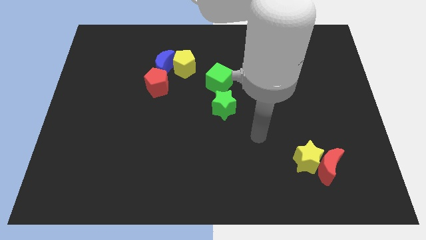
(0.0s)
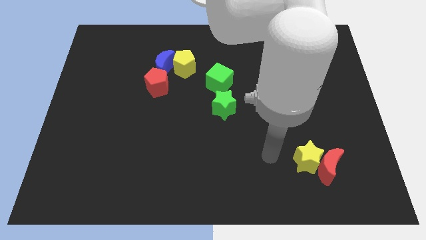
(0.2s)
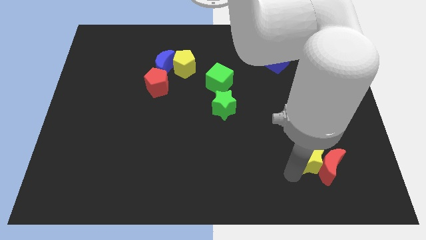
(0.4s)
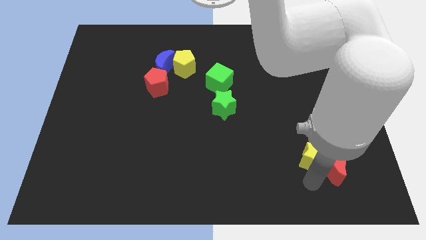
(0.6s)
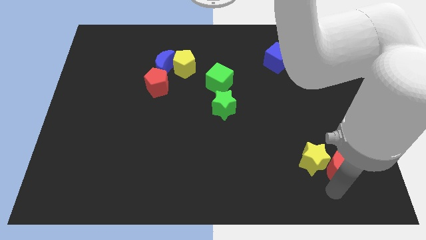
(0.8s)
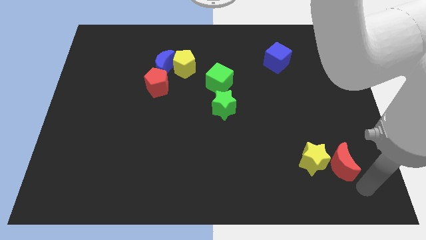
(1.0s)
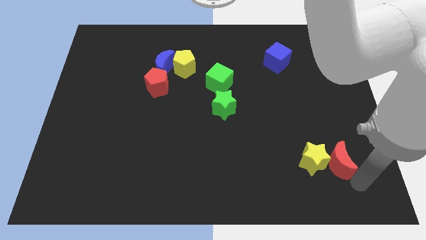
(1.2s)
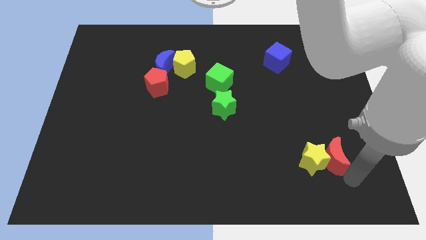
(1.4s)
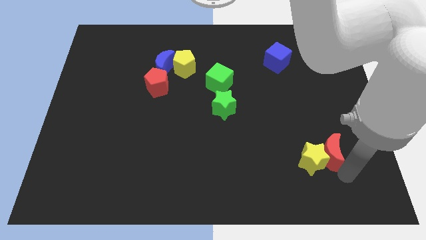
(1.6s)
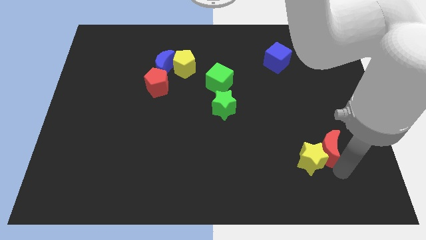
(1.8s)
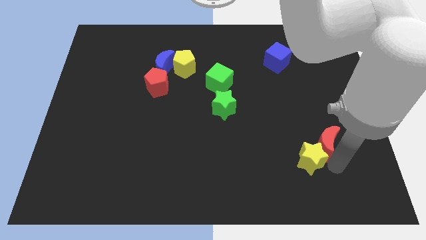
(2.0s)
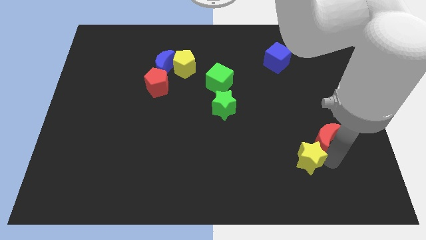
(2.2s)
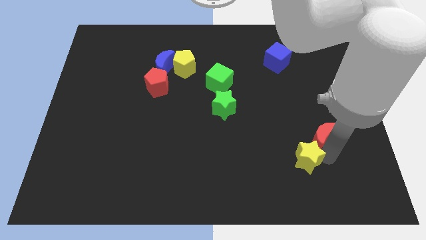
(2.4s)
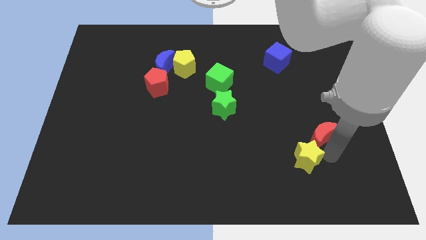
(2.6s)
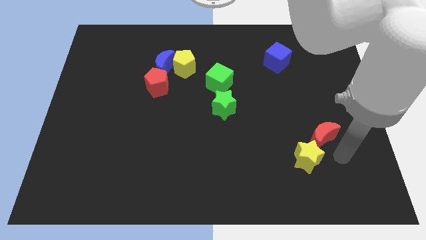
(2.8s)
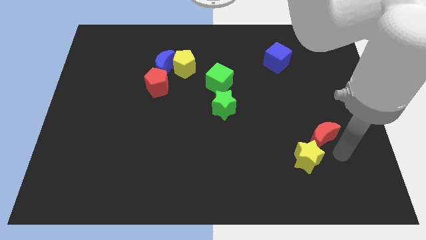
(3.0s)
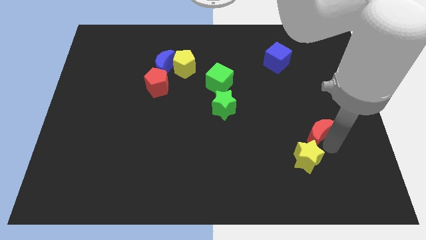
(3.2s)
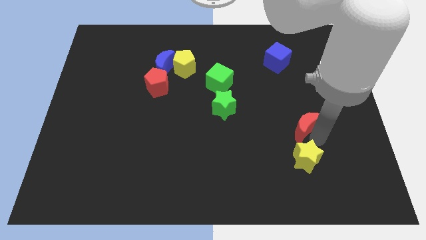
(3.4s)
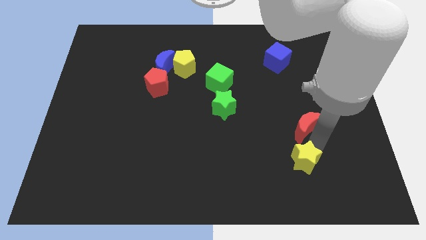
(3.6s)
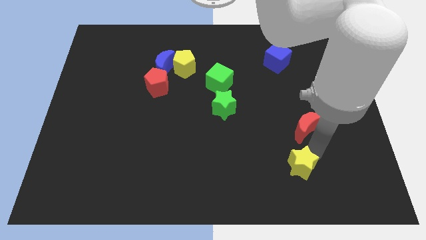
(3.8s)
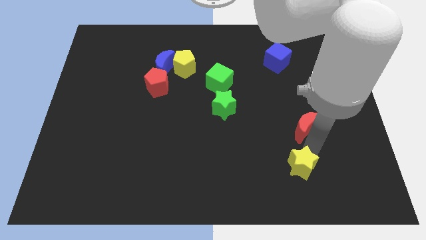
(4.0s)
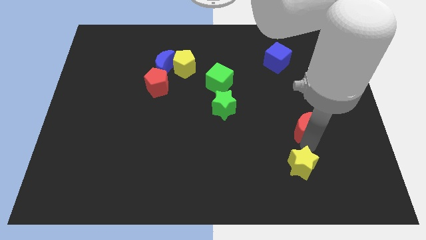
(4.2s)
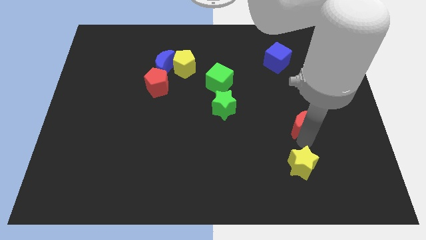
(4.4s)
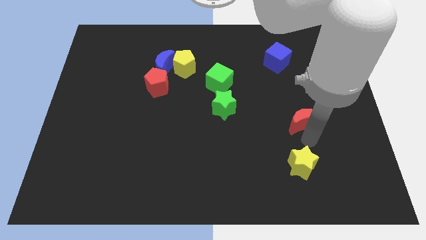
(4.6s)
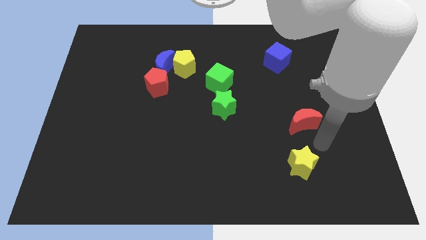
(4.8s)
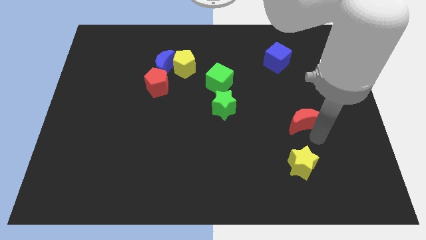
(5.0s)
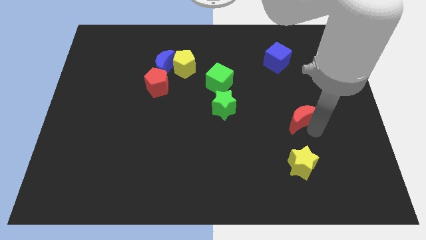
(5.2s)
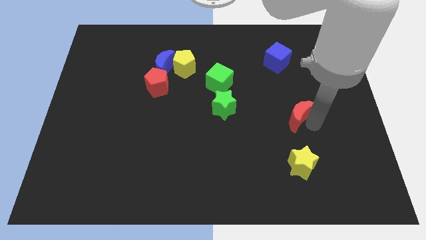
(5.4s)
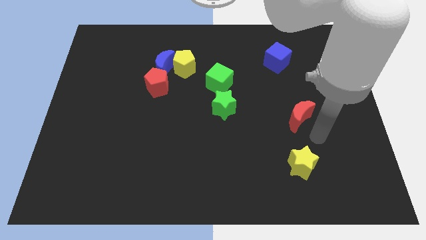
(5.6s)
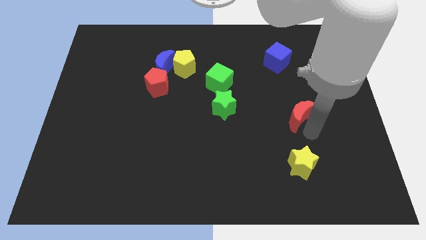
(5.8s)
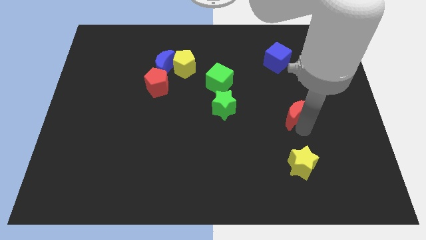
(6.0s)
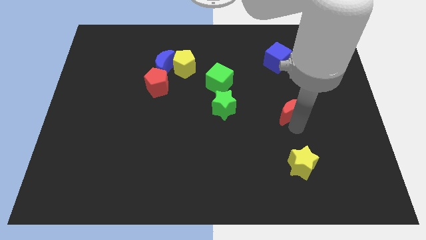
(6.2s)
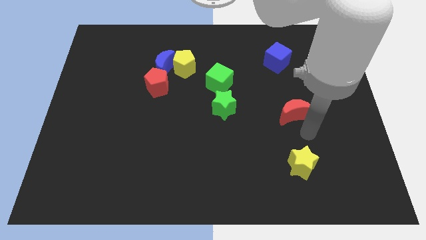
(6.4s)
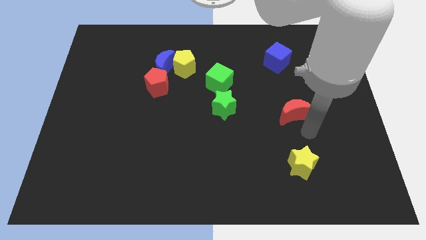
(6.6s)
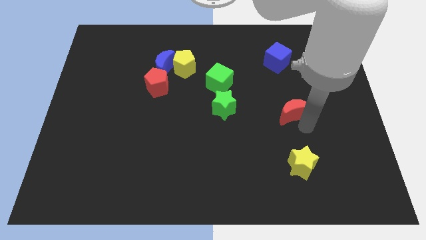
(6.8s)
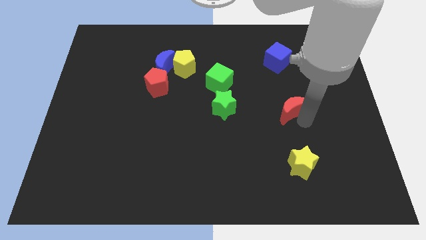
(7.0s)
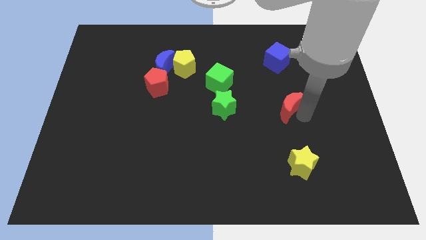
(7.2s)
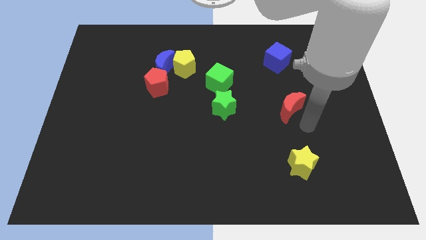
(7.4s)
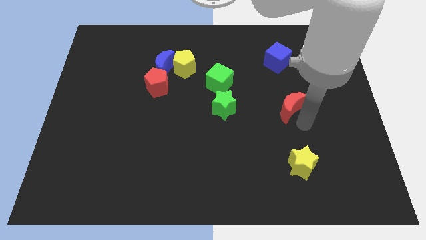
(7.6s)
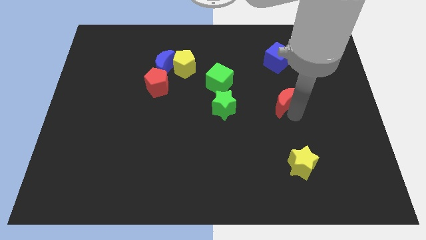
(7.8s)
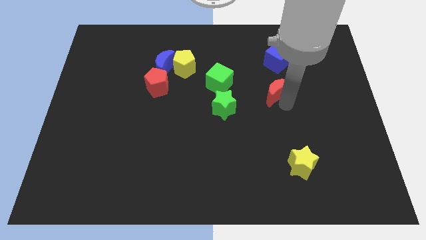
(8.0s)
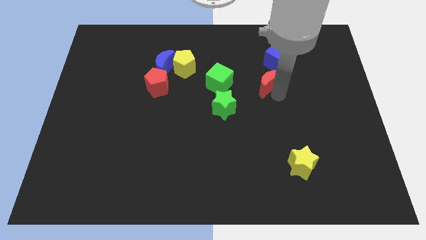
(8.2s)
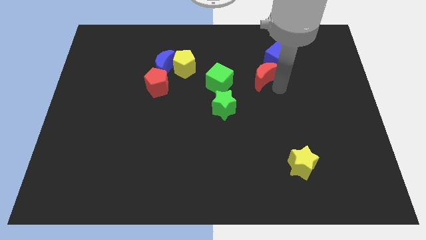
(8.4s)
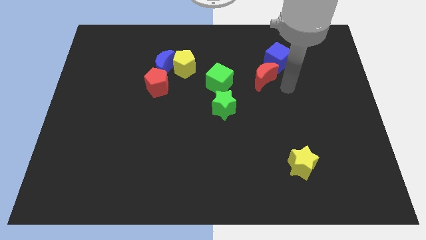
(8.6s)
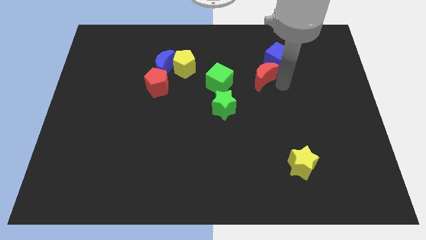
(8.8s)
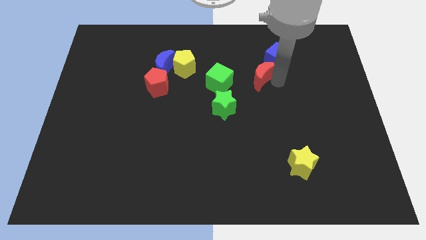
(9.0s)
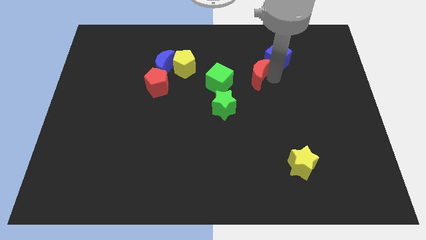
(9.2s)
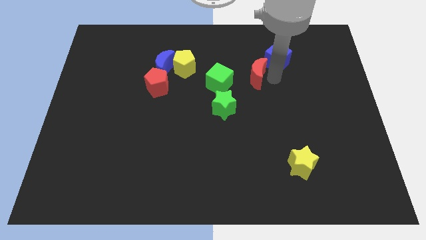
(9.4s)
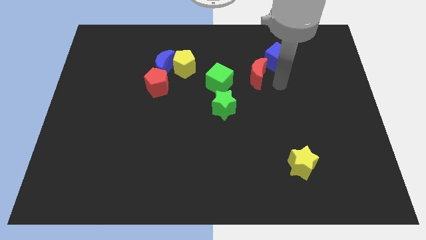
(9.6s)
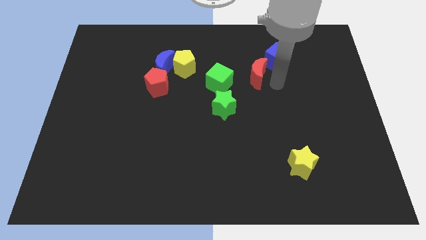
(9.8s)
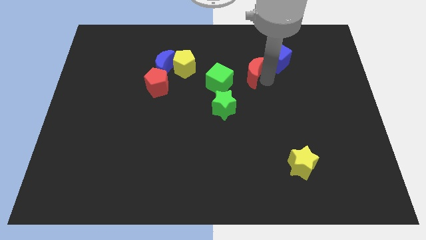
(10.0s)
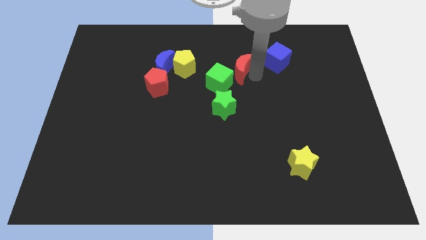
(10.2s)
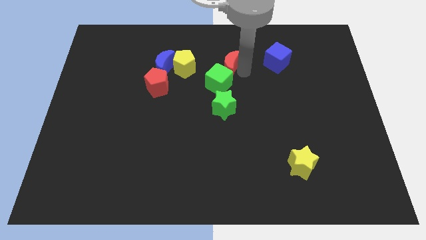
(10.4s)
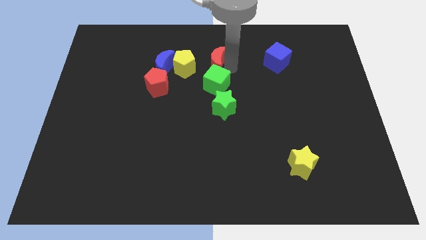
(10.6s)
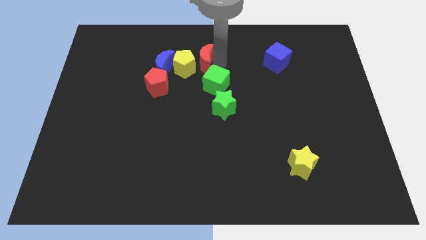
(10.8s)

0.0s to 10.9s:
slide the red moon close to the yellow pentagon

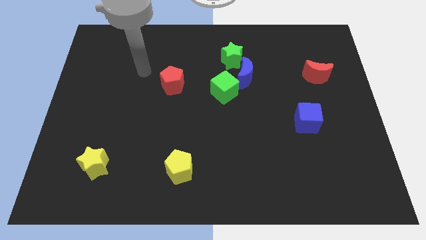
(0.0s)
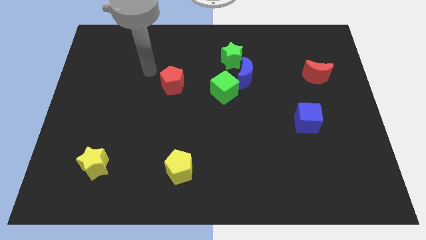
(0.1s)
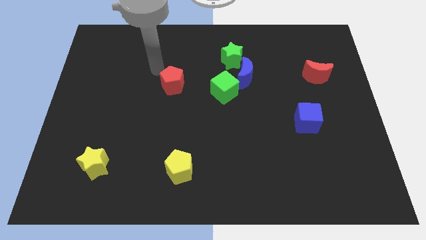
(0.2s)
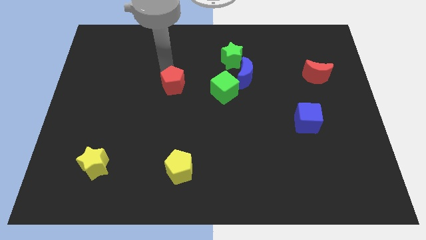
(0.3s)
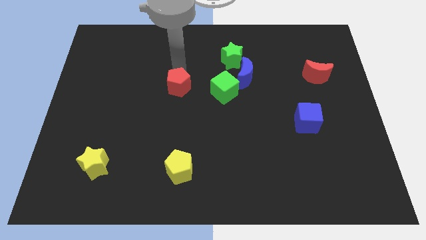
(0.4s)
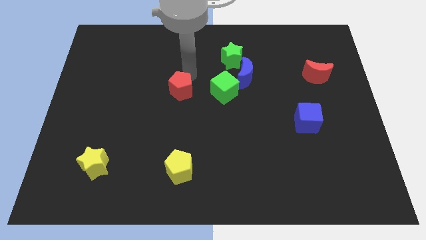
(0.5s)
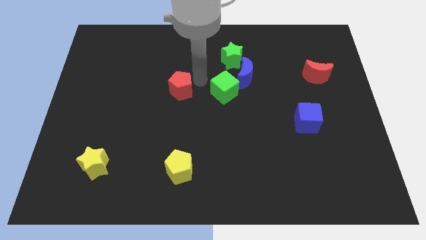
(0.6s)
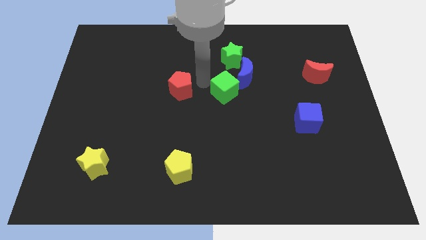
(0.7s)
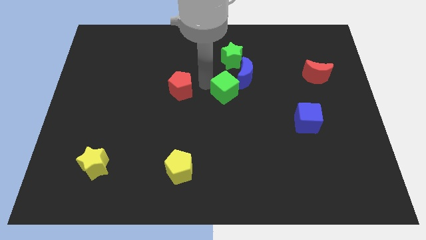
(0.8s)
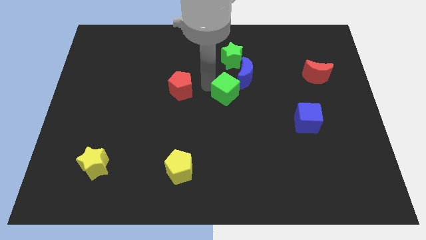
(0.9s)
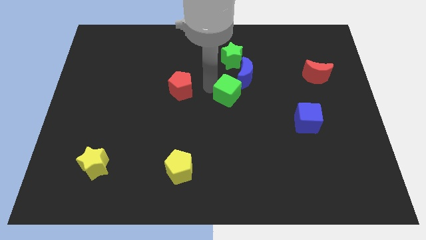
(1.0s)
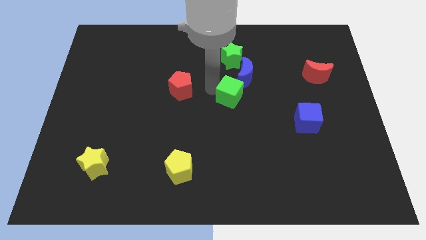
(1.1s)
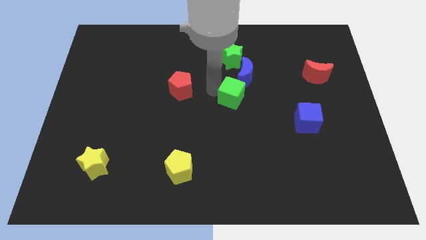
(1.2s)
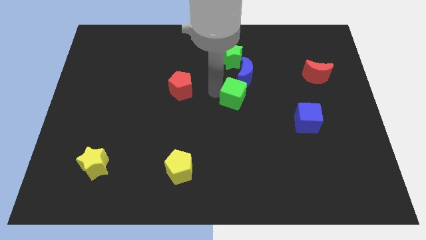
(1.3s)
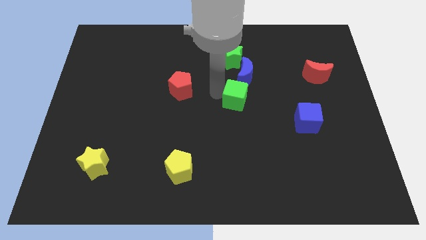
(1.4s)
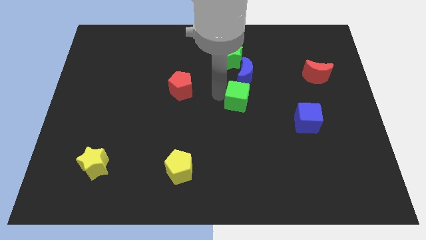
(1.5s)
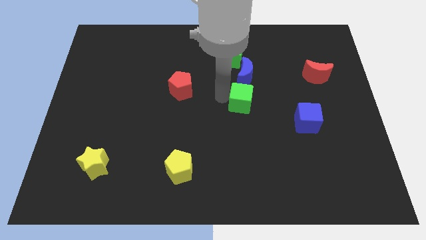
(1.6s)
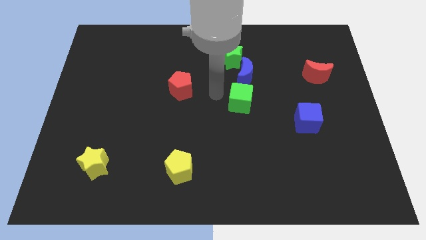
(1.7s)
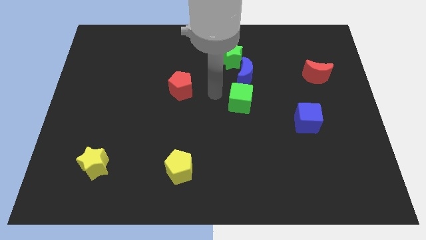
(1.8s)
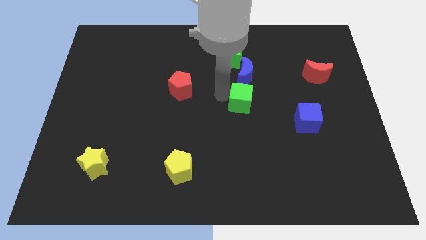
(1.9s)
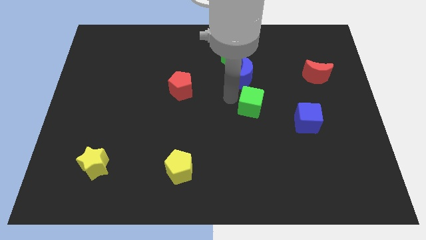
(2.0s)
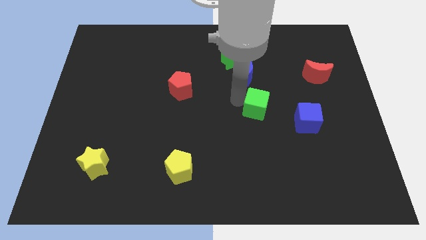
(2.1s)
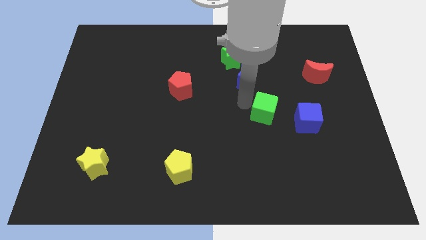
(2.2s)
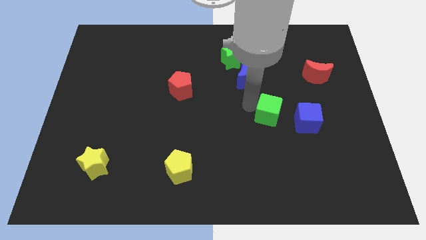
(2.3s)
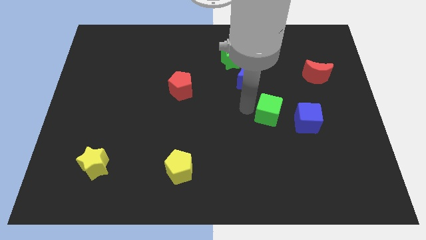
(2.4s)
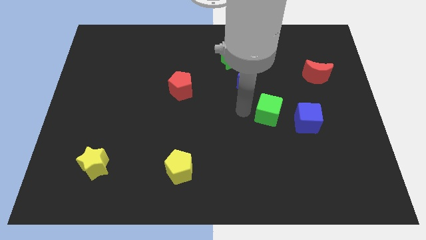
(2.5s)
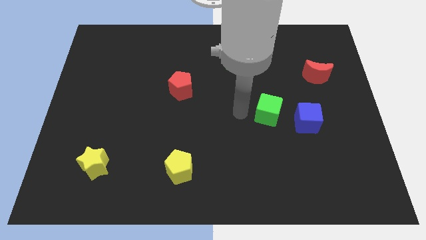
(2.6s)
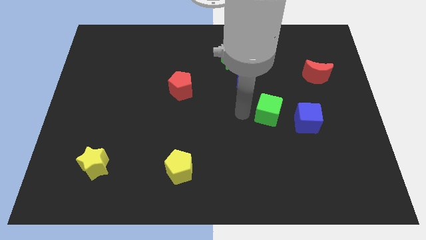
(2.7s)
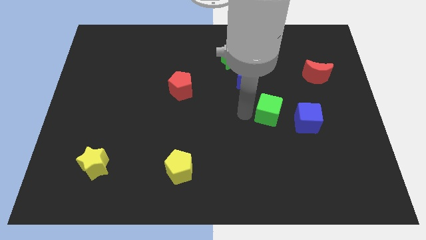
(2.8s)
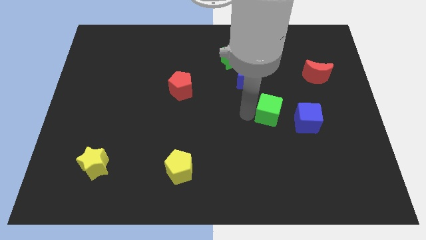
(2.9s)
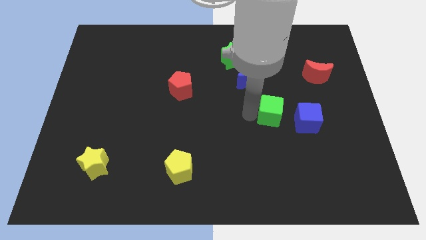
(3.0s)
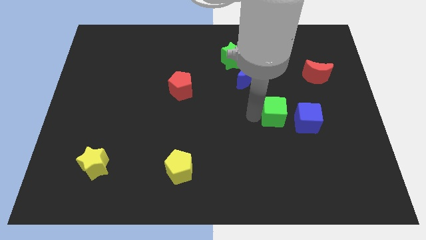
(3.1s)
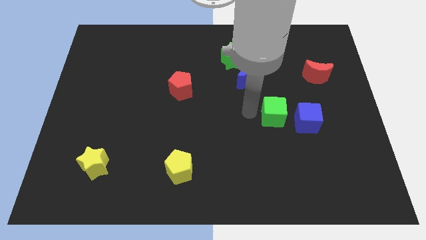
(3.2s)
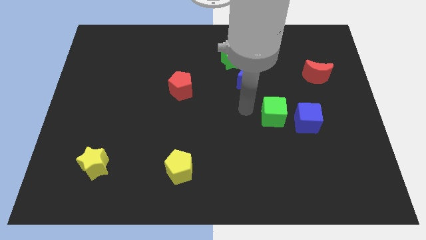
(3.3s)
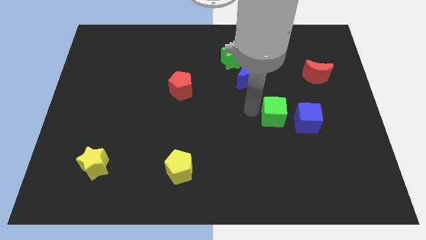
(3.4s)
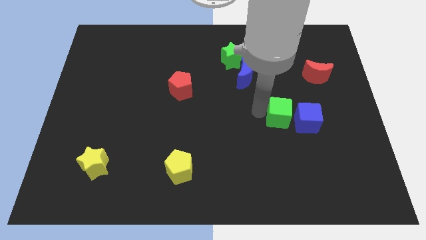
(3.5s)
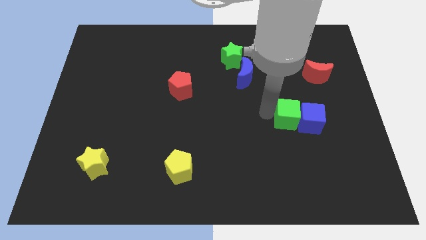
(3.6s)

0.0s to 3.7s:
put the green cube close to the blue cube
